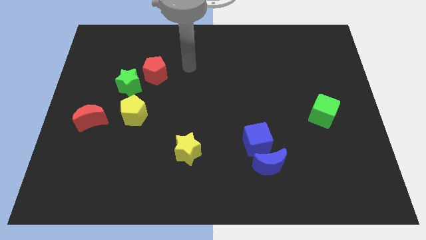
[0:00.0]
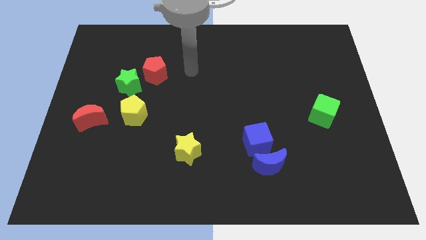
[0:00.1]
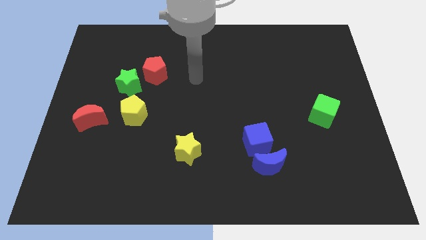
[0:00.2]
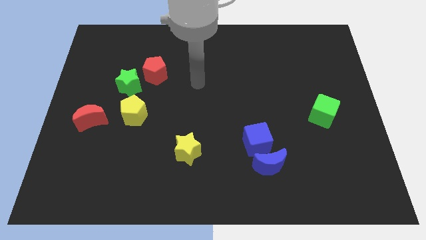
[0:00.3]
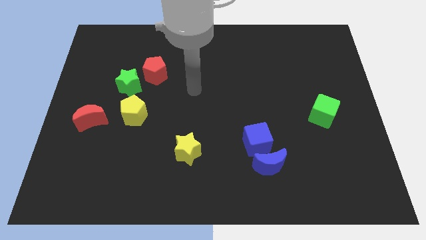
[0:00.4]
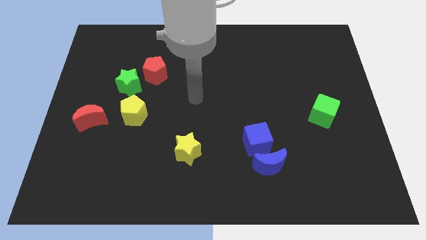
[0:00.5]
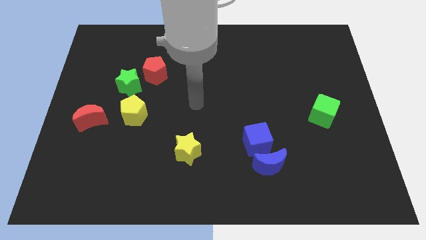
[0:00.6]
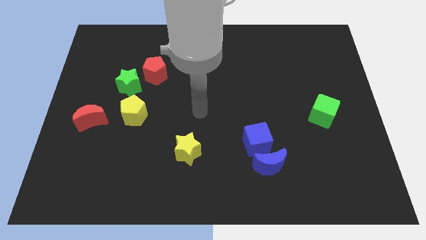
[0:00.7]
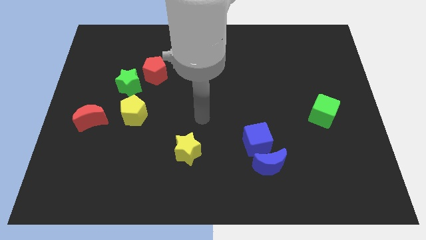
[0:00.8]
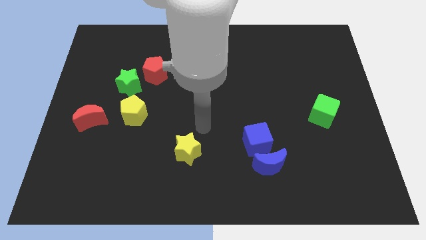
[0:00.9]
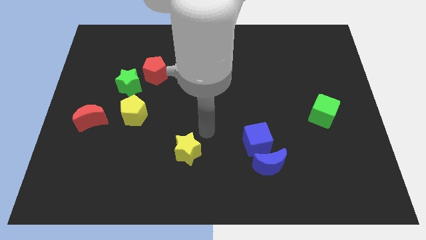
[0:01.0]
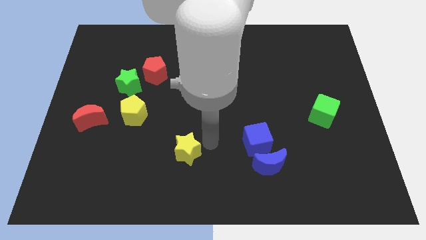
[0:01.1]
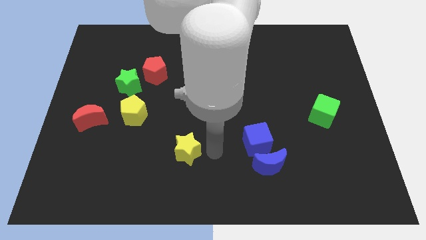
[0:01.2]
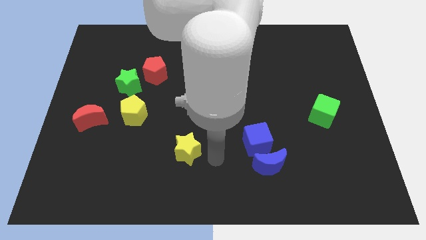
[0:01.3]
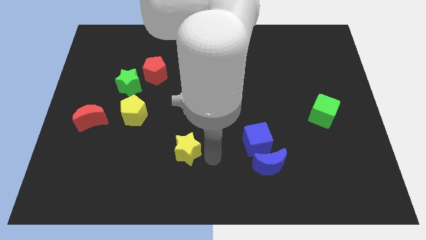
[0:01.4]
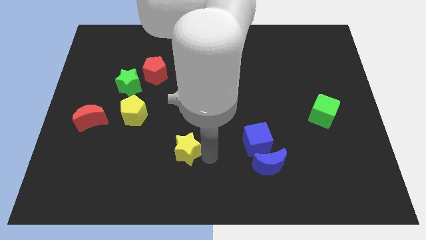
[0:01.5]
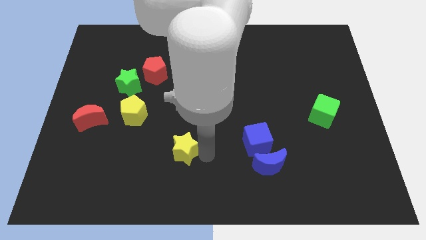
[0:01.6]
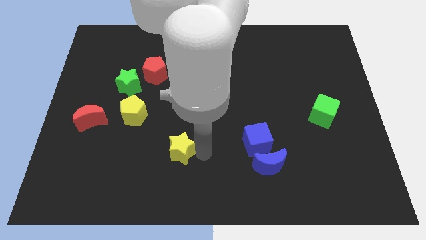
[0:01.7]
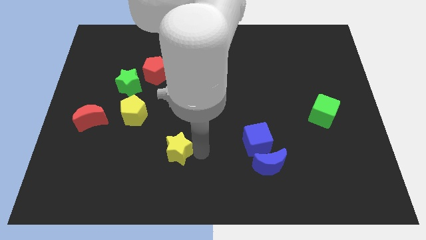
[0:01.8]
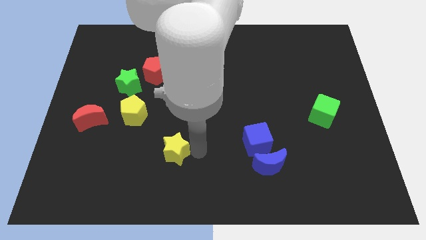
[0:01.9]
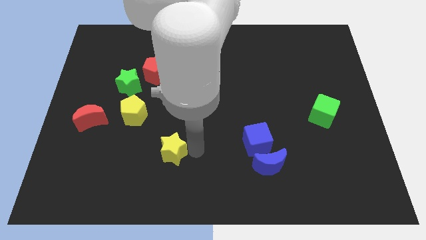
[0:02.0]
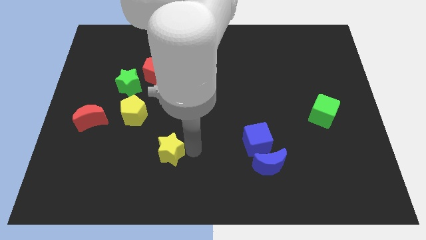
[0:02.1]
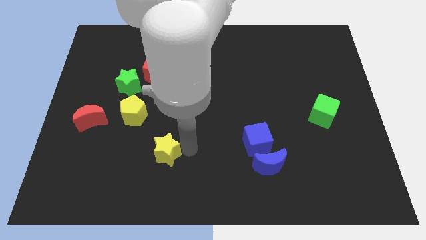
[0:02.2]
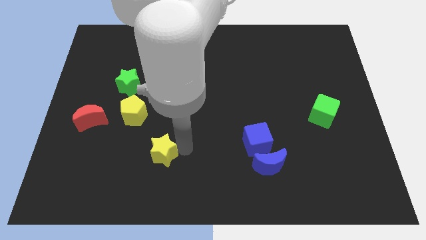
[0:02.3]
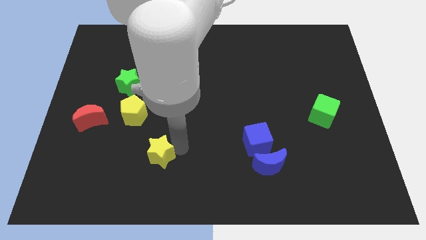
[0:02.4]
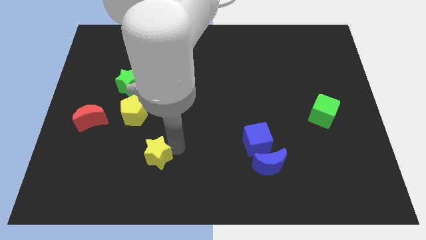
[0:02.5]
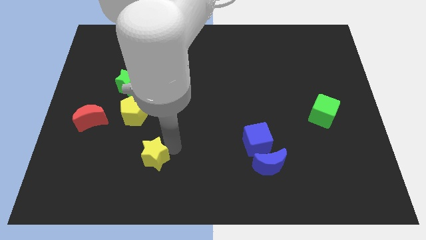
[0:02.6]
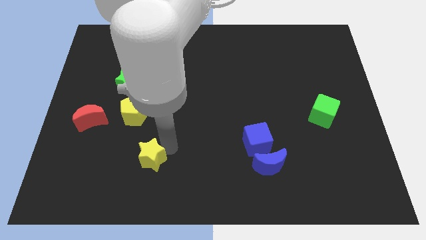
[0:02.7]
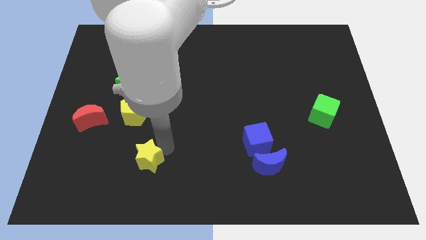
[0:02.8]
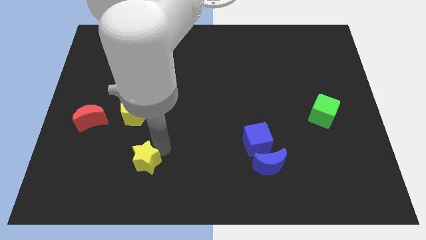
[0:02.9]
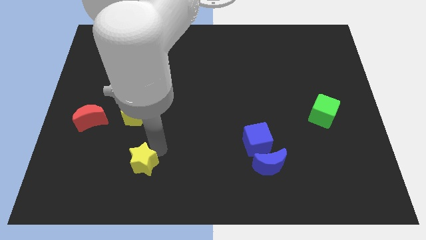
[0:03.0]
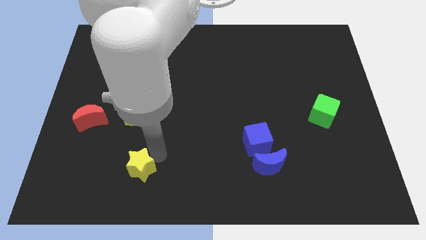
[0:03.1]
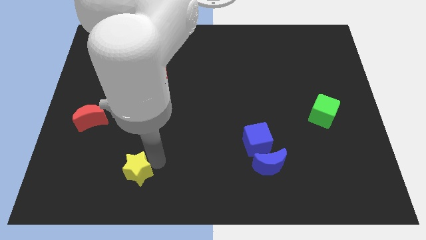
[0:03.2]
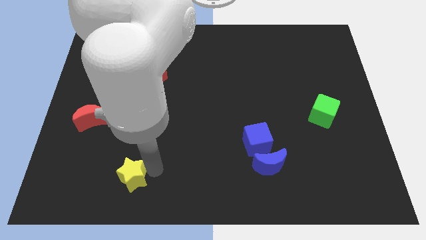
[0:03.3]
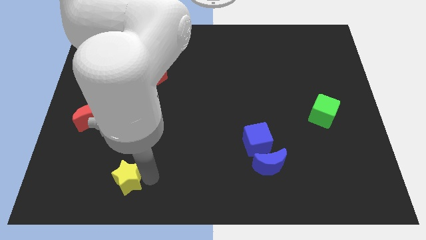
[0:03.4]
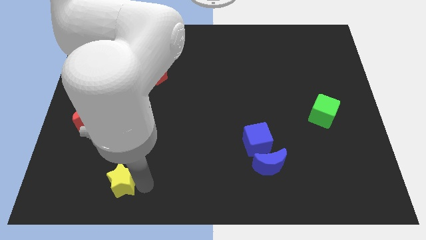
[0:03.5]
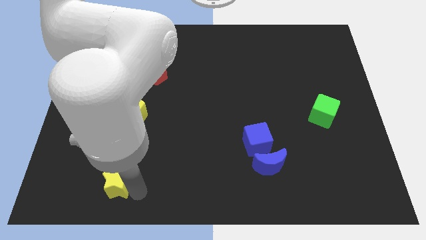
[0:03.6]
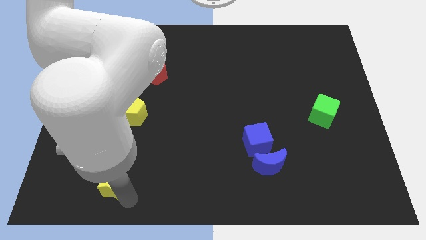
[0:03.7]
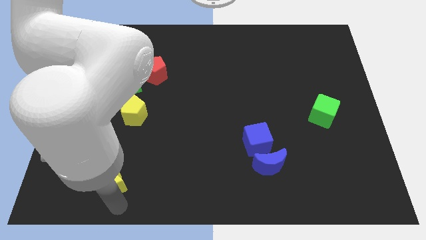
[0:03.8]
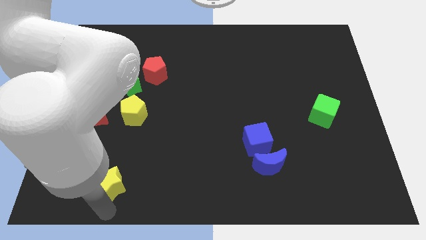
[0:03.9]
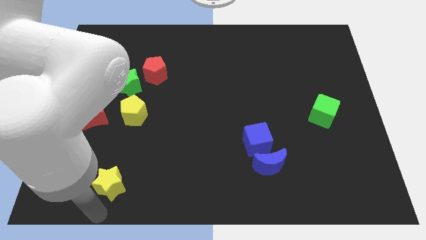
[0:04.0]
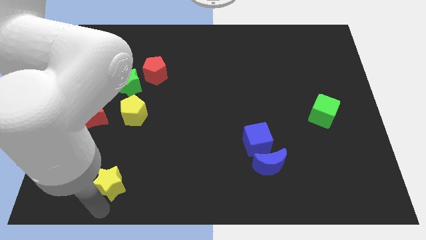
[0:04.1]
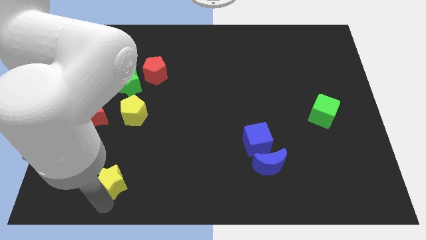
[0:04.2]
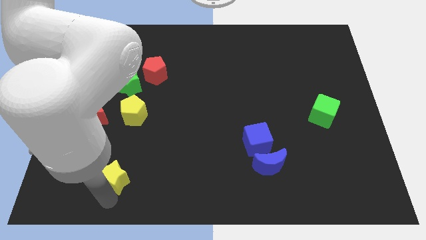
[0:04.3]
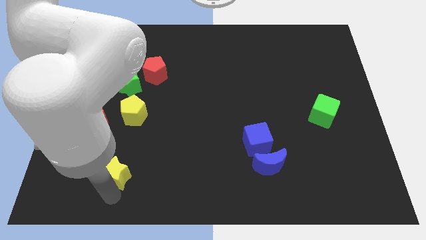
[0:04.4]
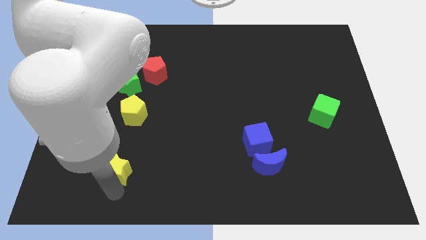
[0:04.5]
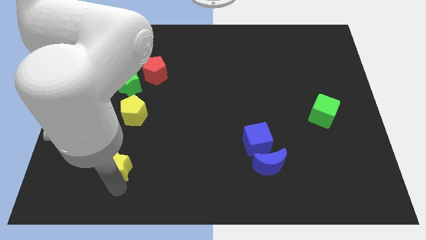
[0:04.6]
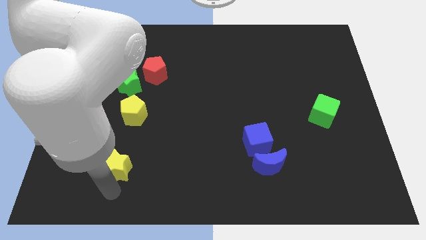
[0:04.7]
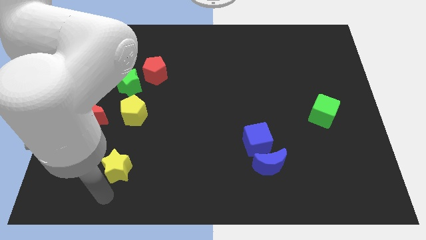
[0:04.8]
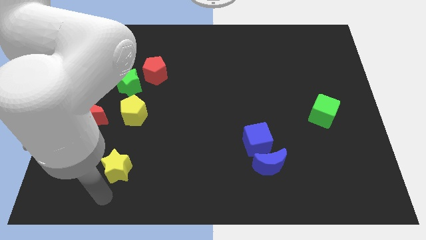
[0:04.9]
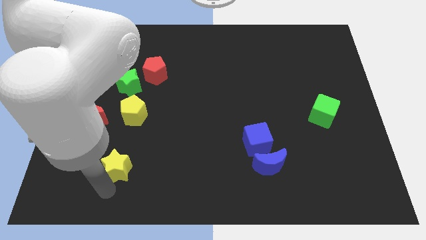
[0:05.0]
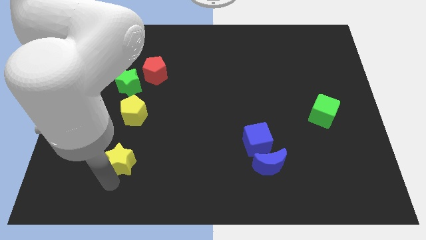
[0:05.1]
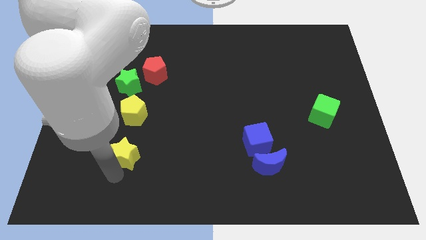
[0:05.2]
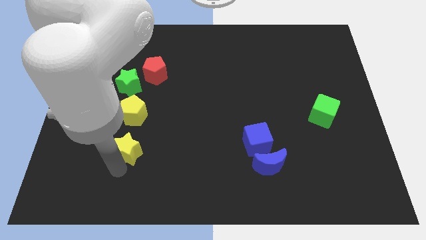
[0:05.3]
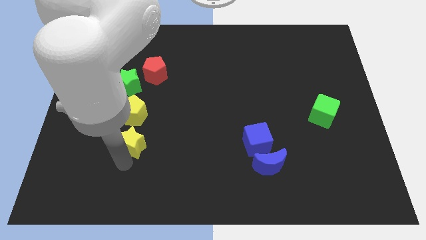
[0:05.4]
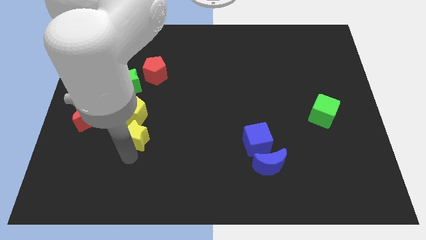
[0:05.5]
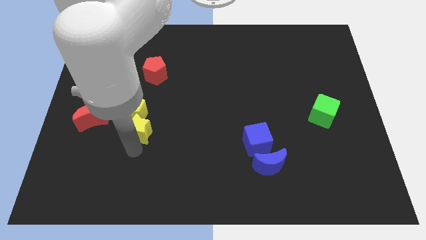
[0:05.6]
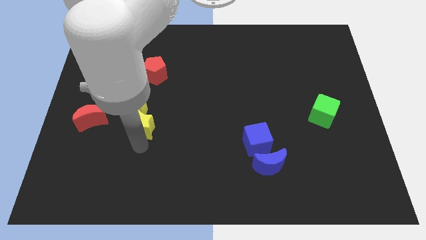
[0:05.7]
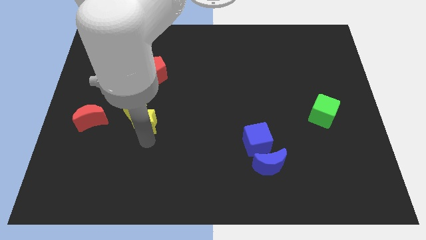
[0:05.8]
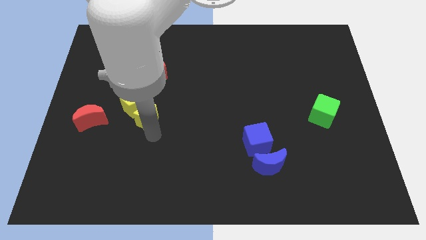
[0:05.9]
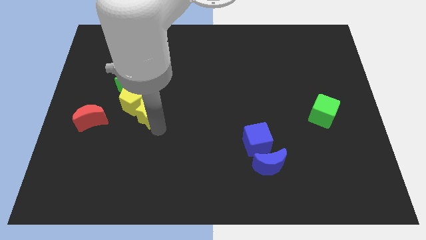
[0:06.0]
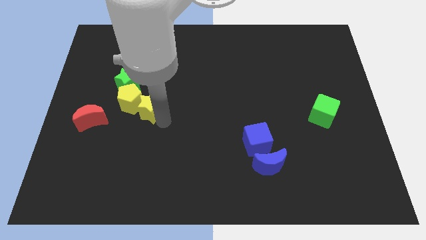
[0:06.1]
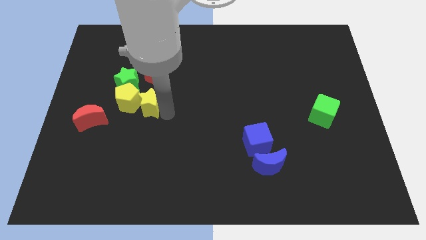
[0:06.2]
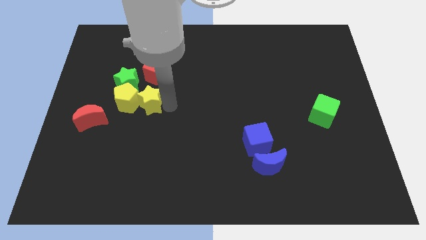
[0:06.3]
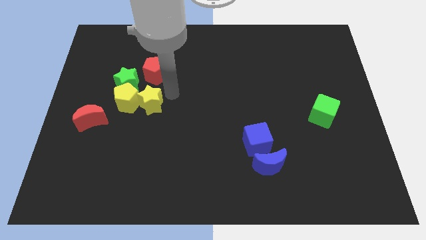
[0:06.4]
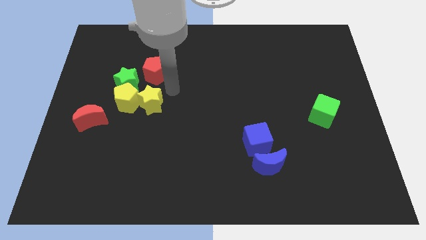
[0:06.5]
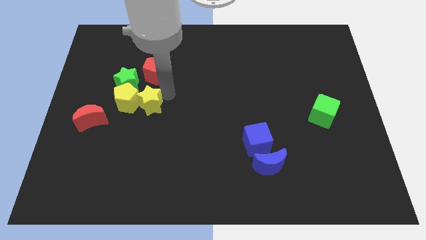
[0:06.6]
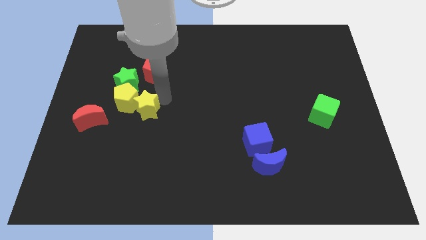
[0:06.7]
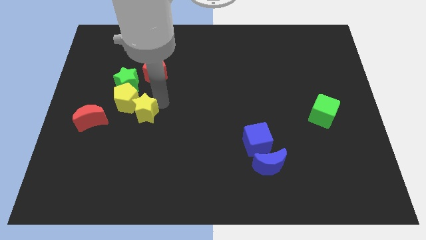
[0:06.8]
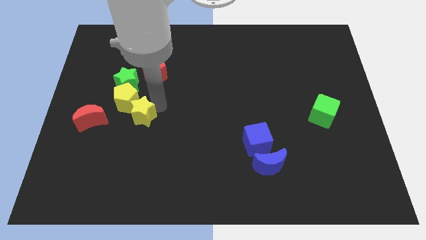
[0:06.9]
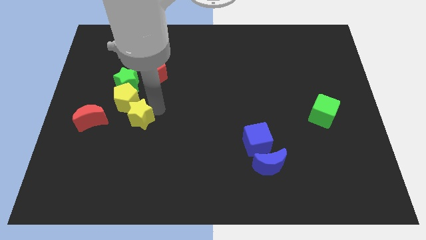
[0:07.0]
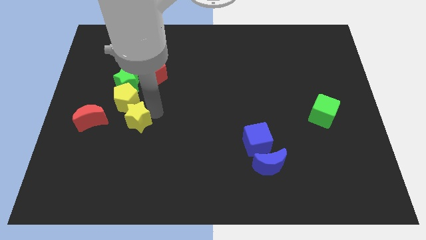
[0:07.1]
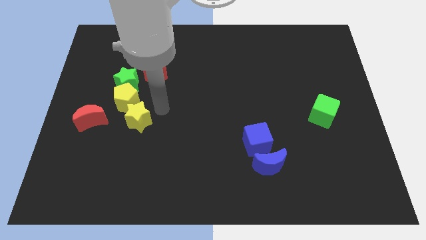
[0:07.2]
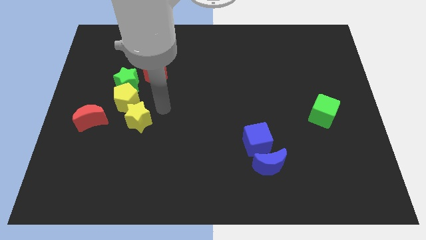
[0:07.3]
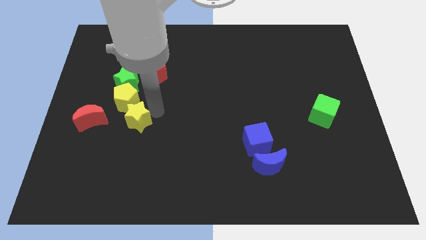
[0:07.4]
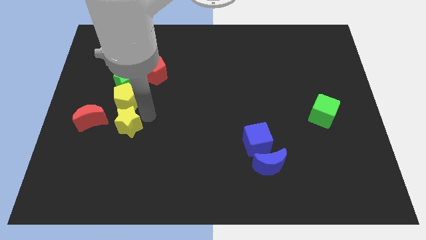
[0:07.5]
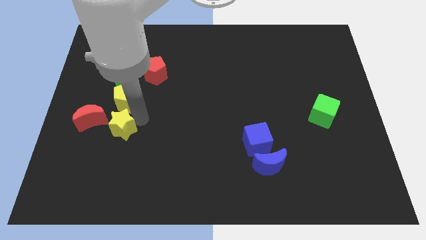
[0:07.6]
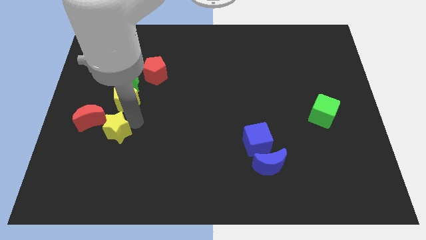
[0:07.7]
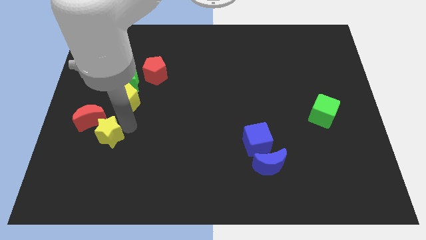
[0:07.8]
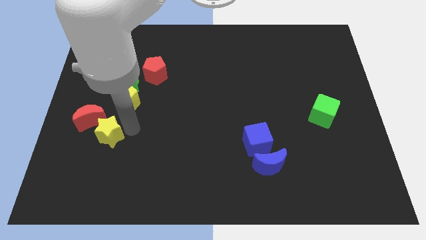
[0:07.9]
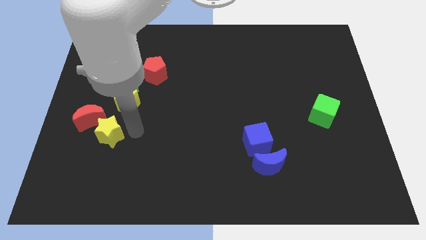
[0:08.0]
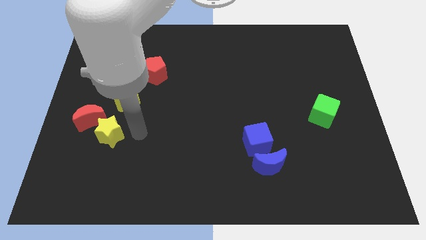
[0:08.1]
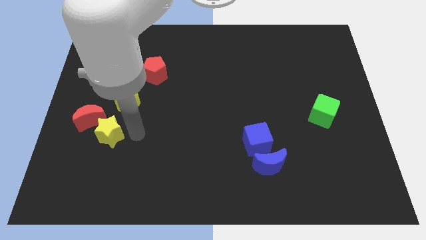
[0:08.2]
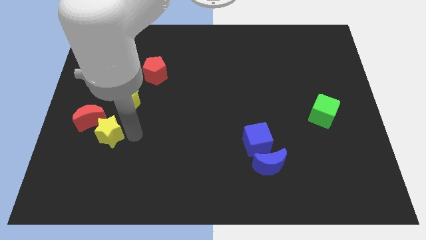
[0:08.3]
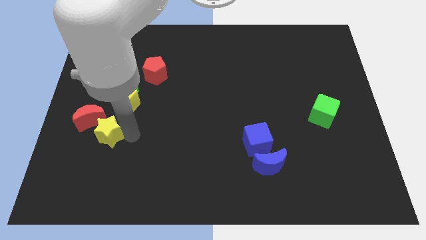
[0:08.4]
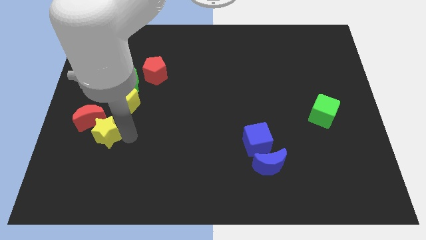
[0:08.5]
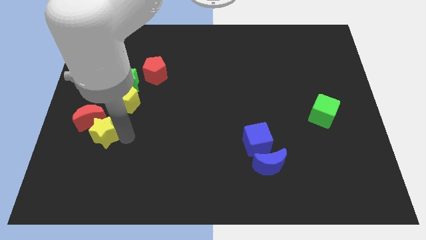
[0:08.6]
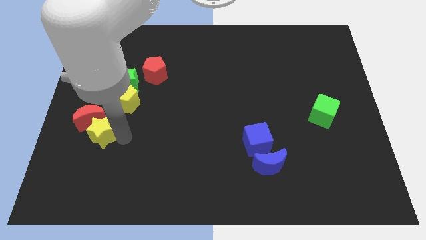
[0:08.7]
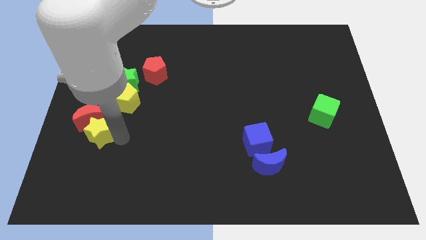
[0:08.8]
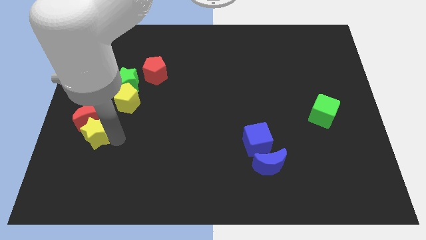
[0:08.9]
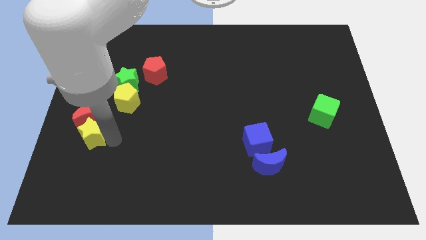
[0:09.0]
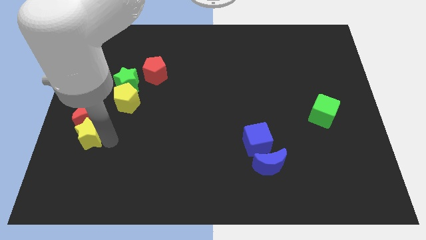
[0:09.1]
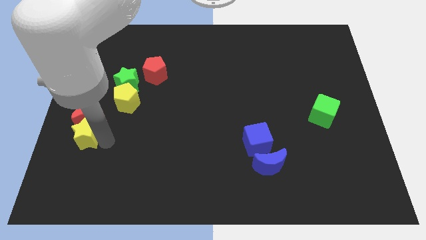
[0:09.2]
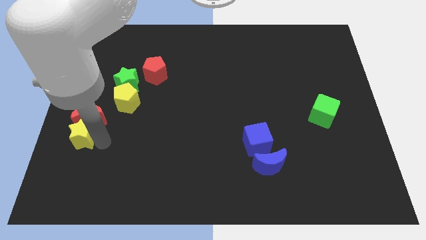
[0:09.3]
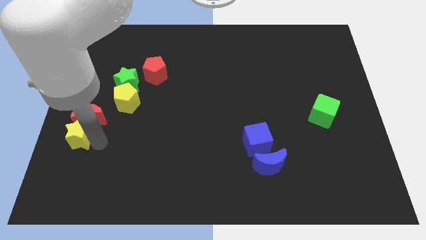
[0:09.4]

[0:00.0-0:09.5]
move the yellow star to the left side of the board
